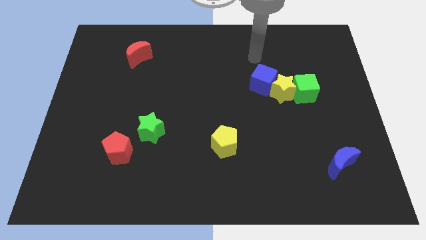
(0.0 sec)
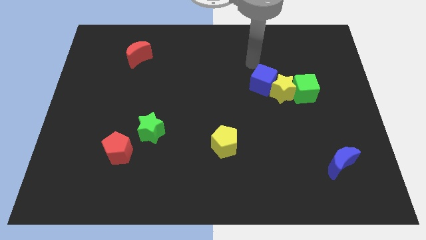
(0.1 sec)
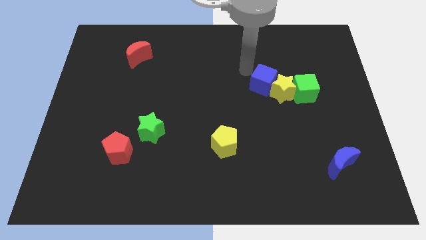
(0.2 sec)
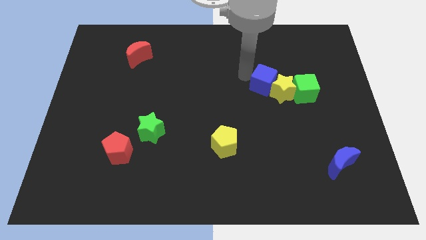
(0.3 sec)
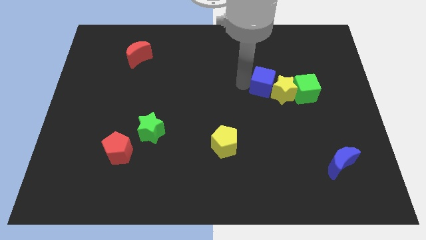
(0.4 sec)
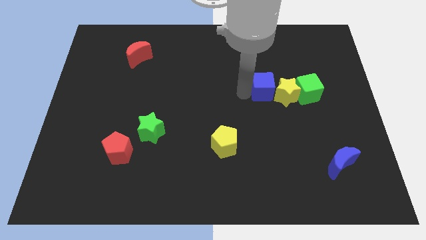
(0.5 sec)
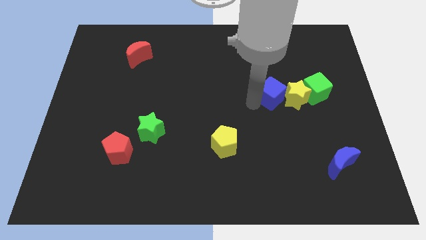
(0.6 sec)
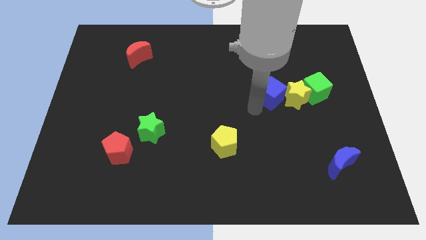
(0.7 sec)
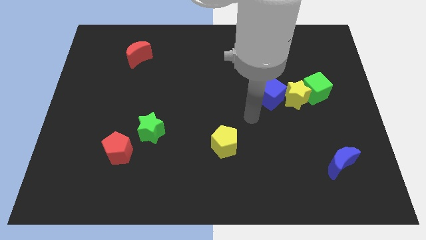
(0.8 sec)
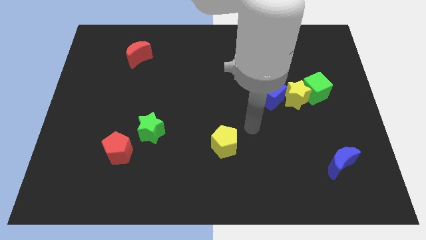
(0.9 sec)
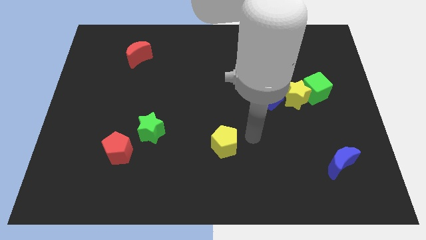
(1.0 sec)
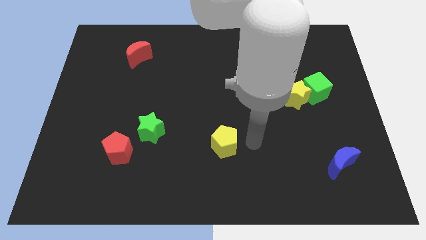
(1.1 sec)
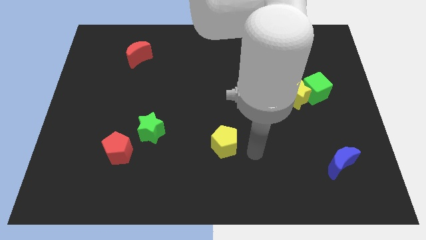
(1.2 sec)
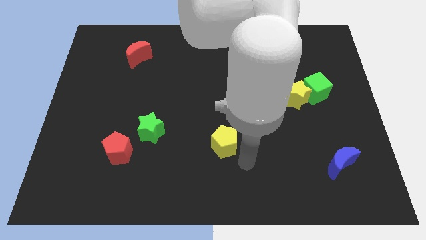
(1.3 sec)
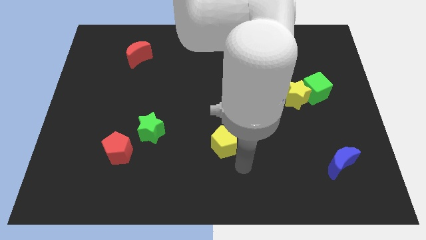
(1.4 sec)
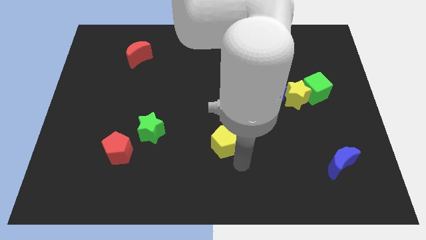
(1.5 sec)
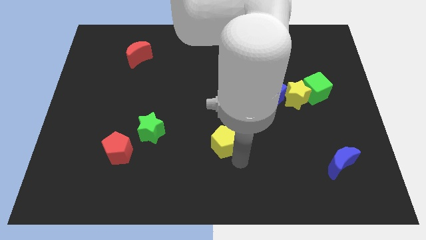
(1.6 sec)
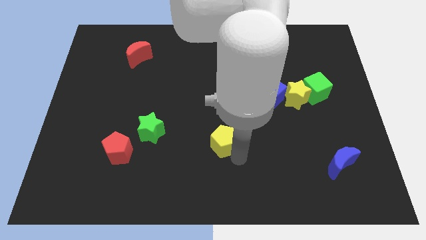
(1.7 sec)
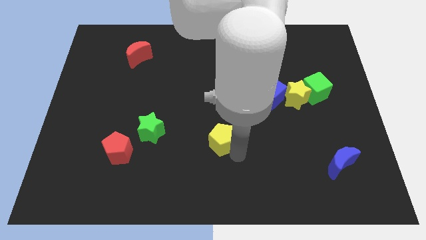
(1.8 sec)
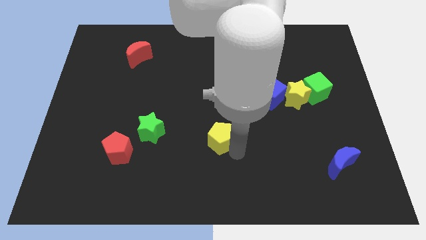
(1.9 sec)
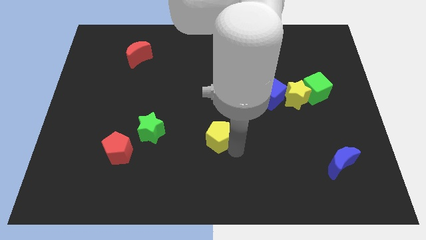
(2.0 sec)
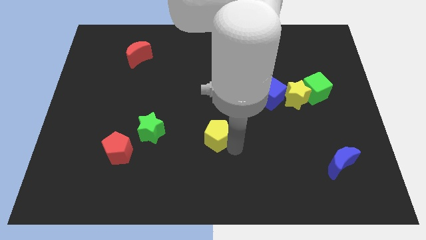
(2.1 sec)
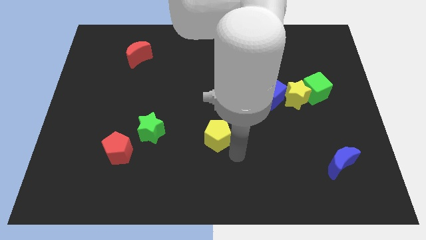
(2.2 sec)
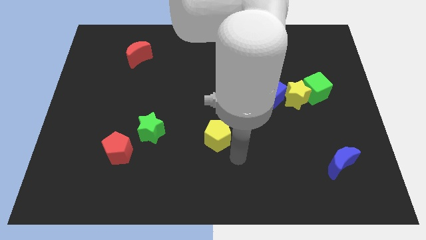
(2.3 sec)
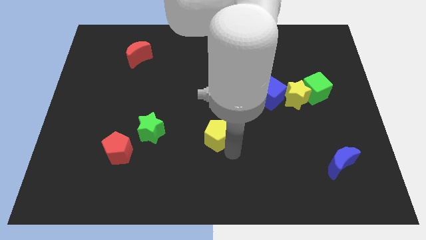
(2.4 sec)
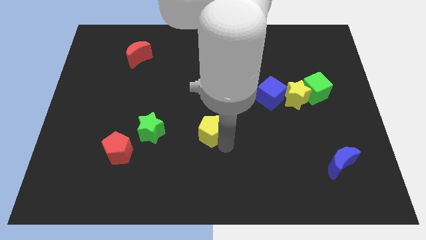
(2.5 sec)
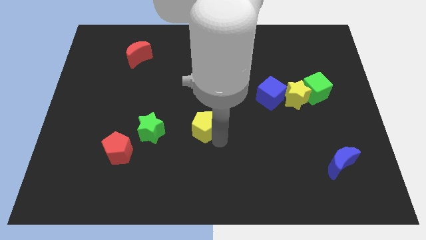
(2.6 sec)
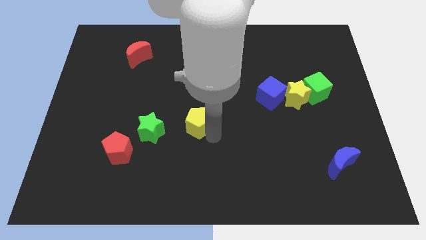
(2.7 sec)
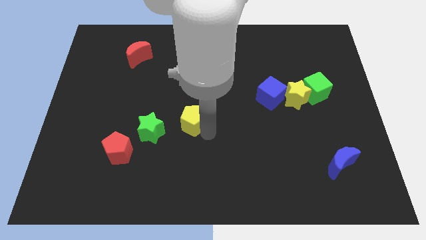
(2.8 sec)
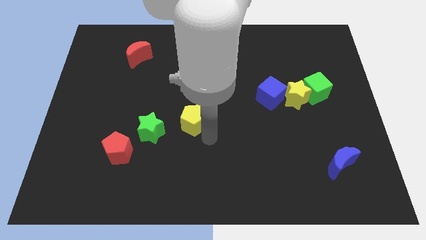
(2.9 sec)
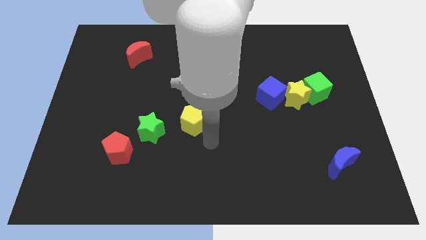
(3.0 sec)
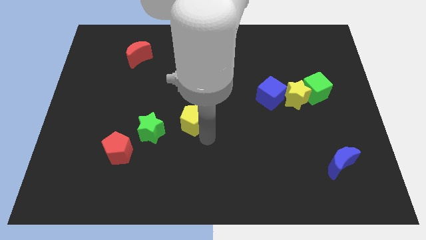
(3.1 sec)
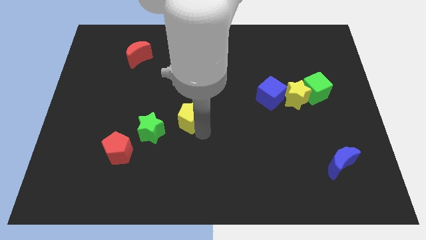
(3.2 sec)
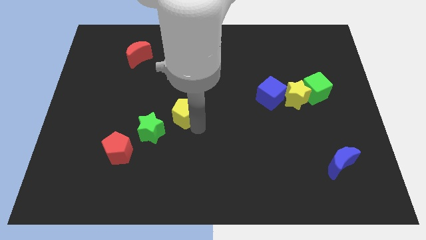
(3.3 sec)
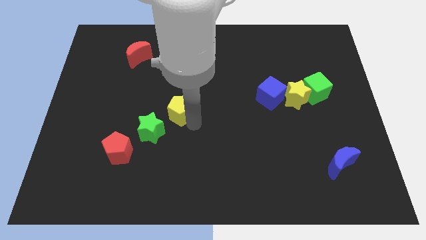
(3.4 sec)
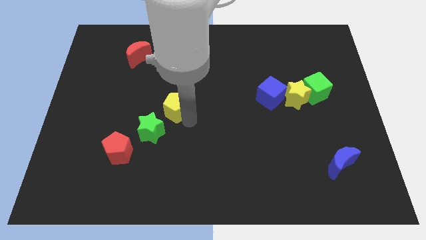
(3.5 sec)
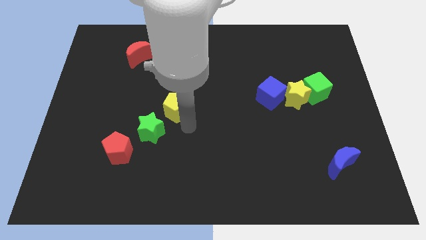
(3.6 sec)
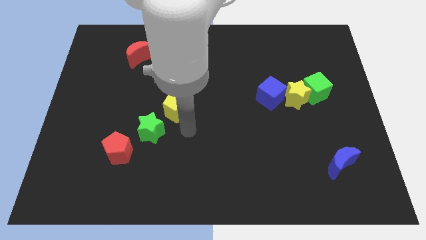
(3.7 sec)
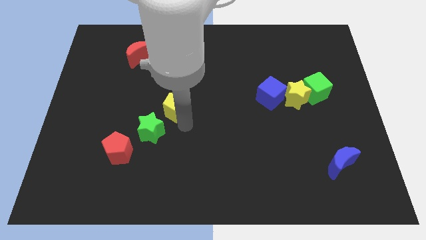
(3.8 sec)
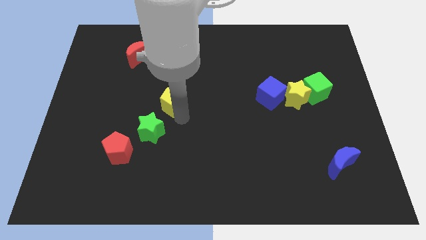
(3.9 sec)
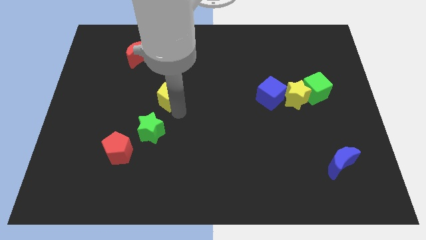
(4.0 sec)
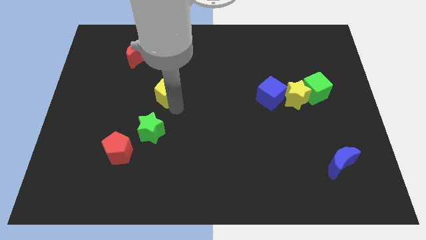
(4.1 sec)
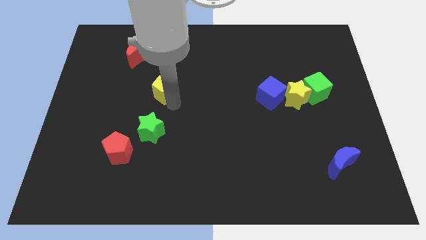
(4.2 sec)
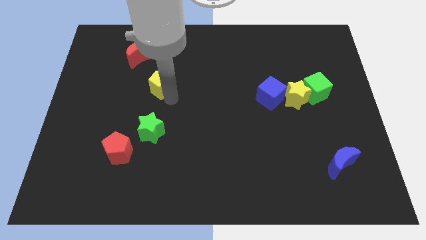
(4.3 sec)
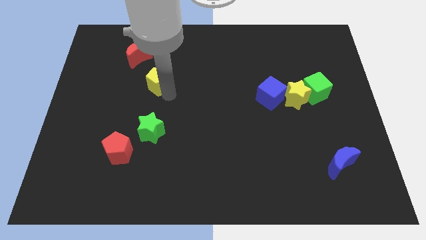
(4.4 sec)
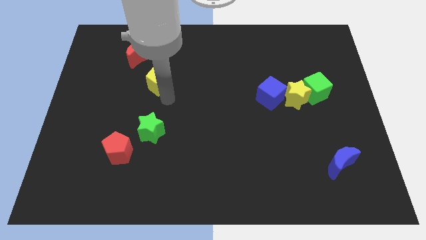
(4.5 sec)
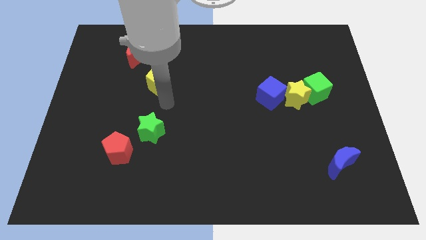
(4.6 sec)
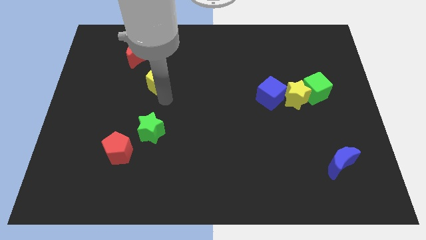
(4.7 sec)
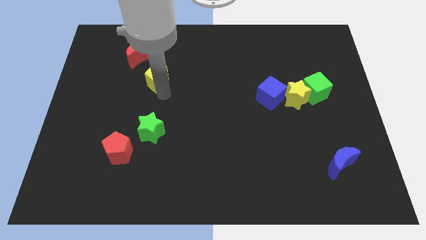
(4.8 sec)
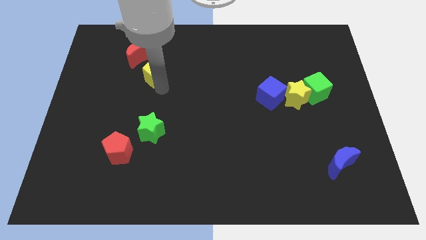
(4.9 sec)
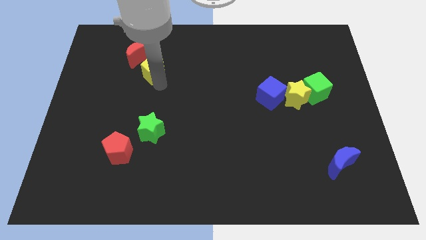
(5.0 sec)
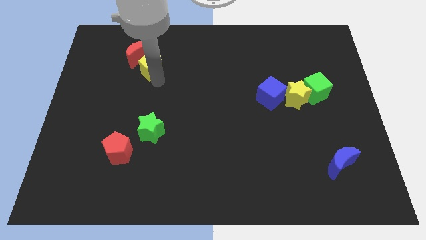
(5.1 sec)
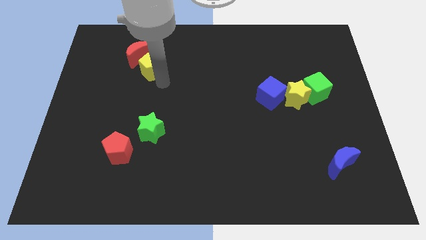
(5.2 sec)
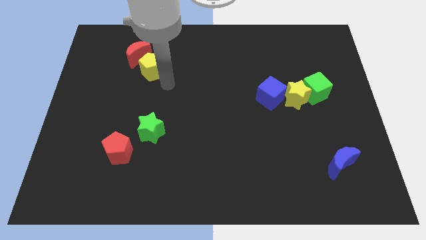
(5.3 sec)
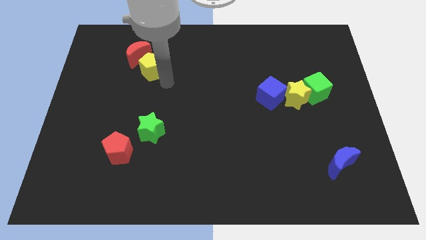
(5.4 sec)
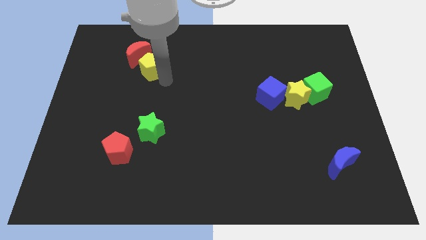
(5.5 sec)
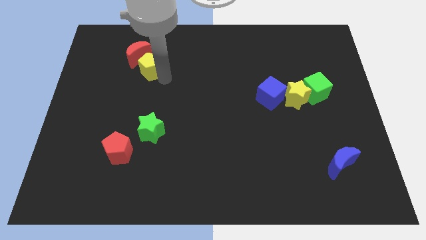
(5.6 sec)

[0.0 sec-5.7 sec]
push the yellow pentagon towards the red moon
